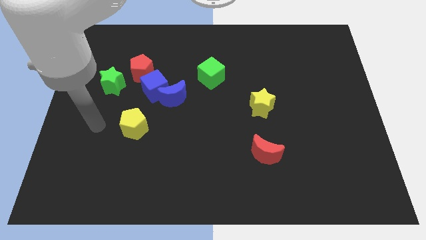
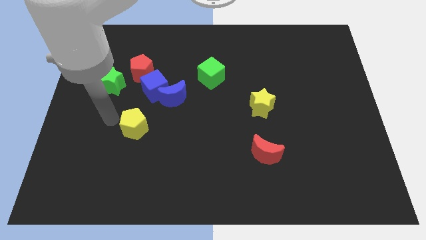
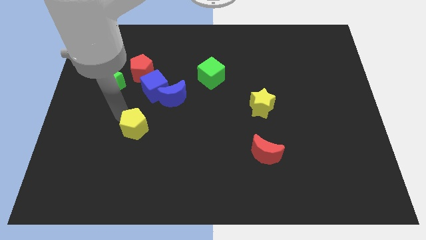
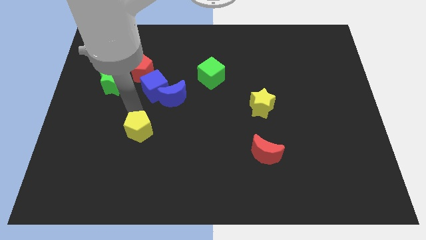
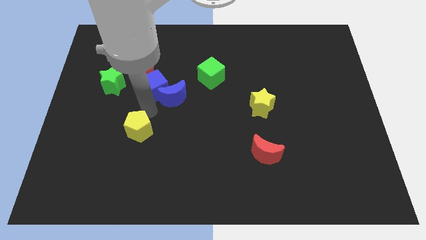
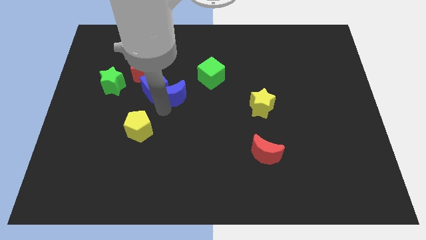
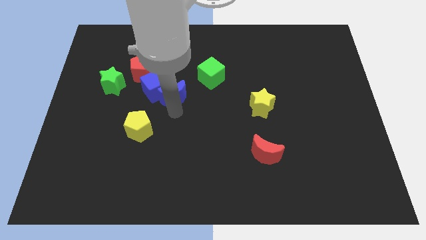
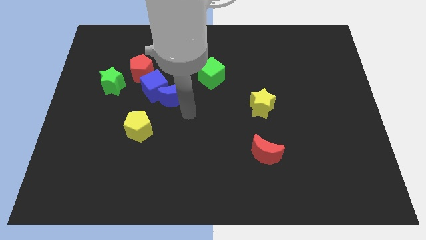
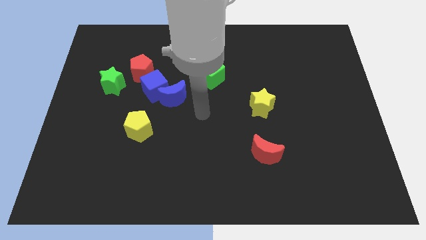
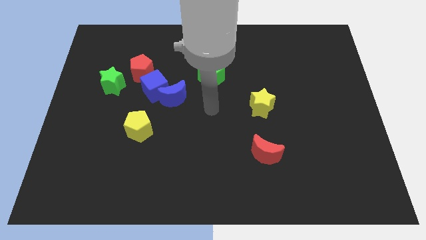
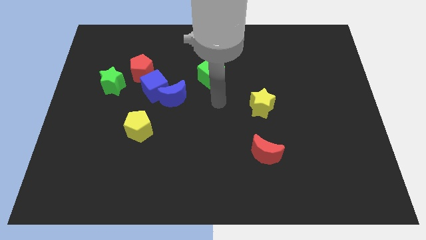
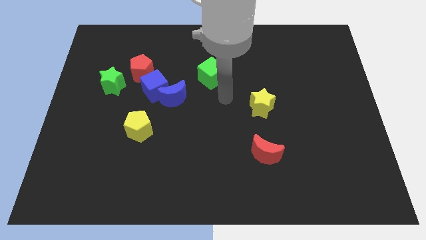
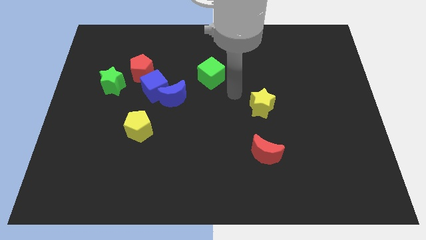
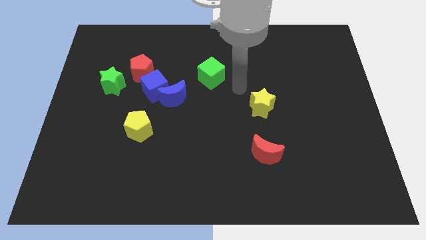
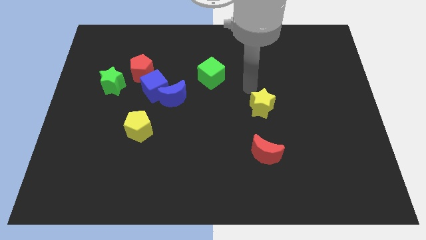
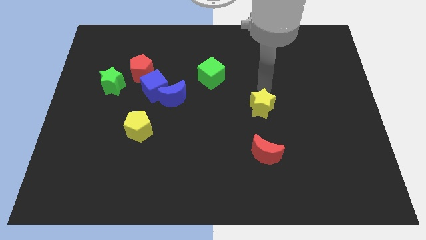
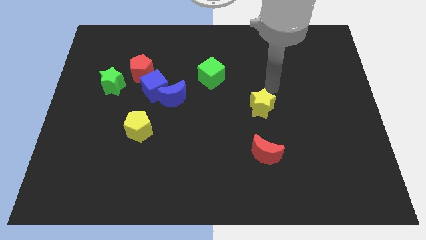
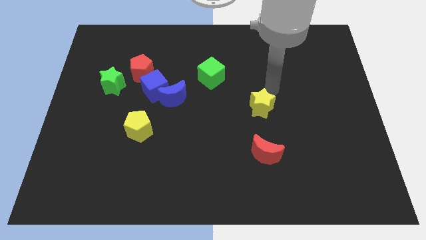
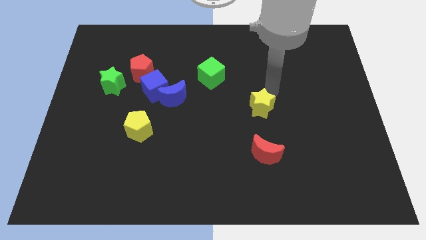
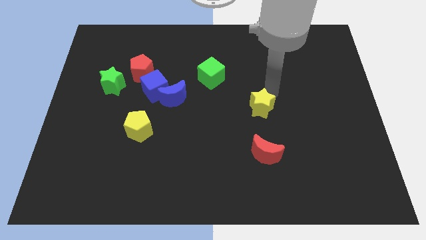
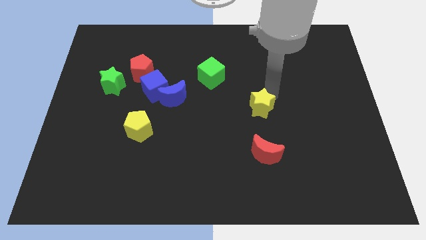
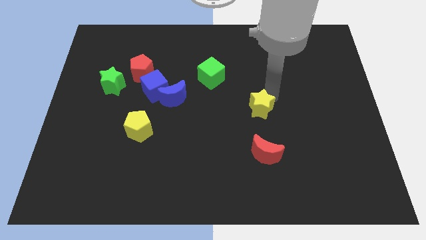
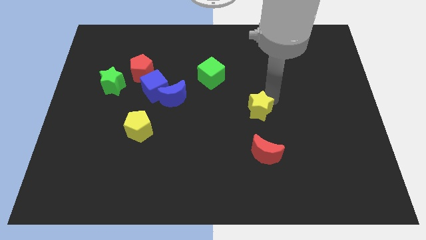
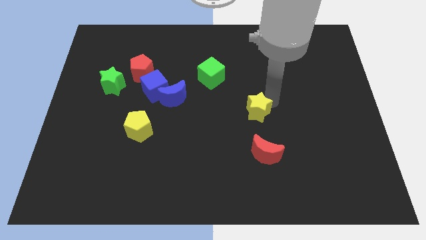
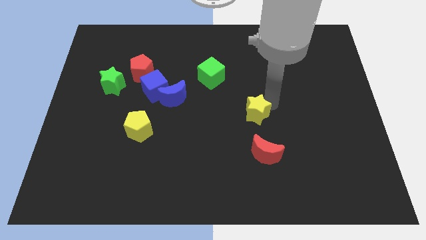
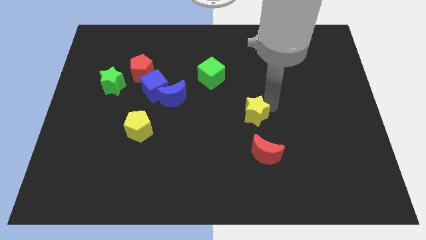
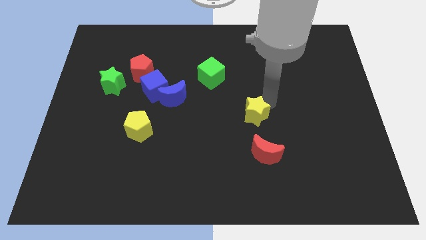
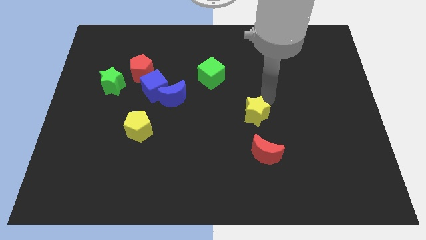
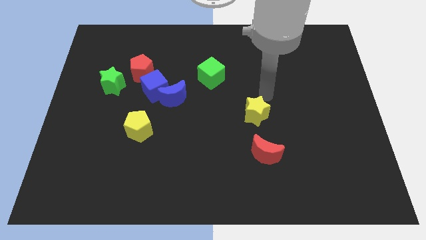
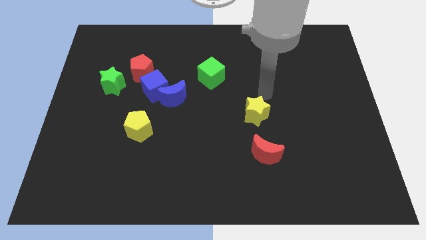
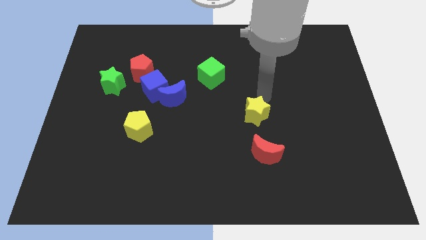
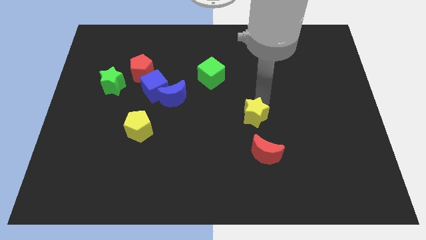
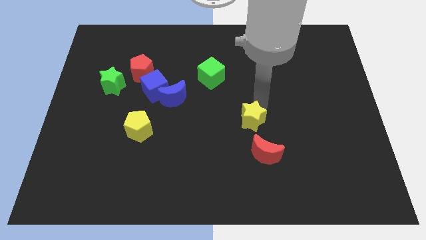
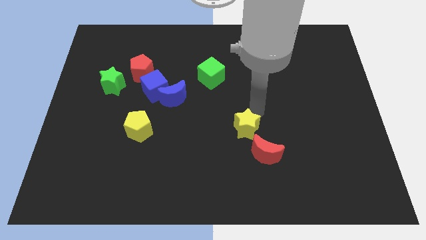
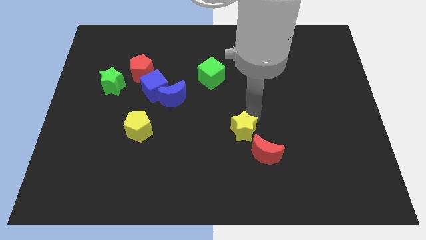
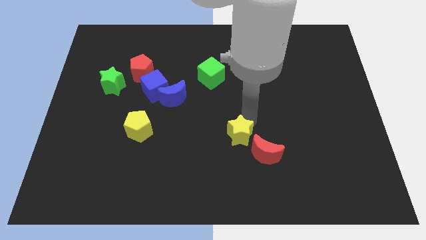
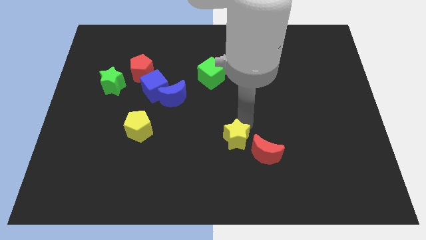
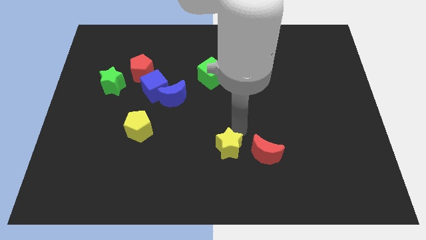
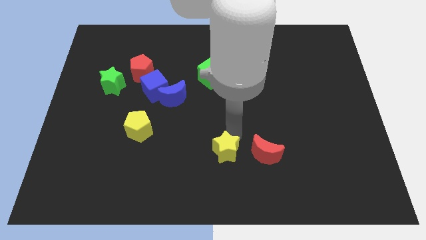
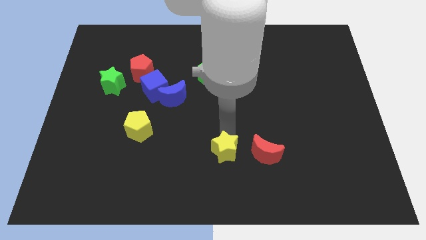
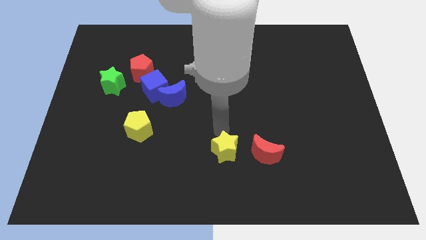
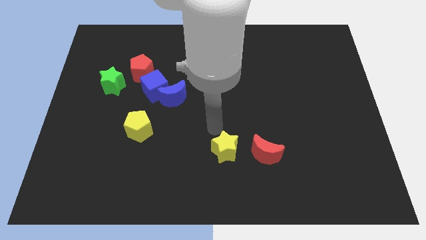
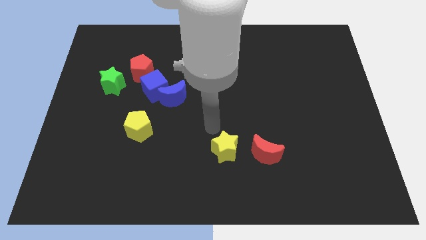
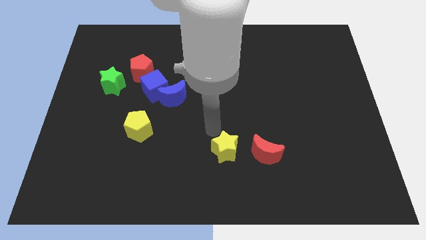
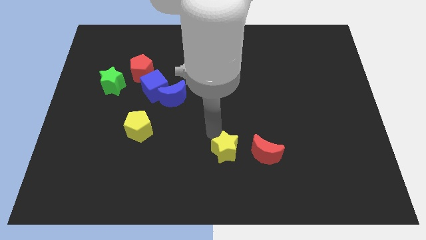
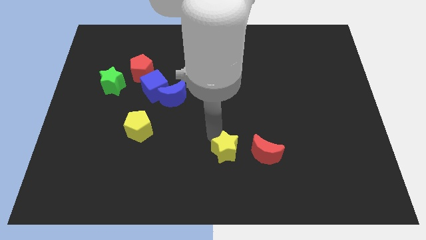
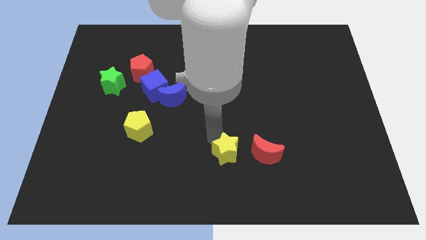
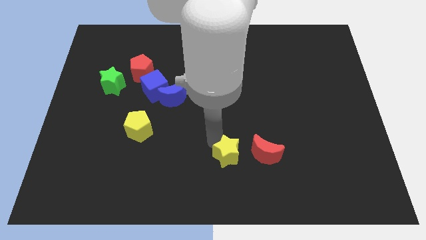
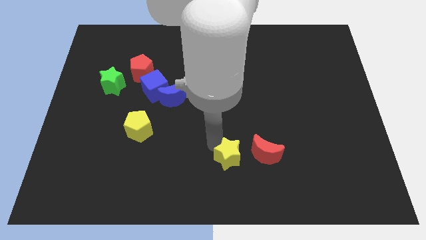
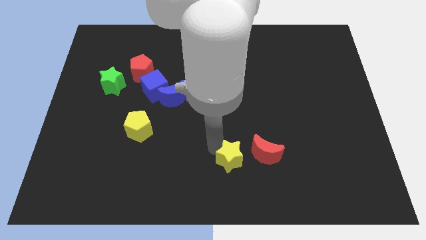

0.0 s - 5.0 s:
slide the yellow star diagonally down and to the left of the red moon

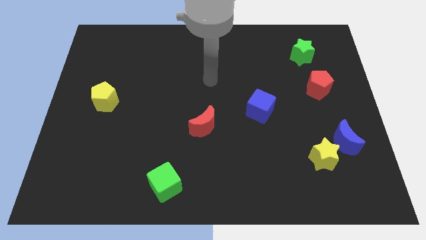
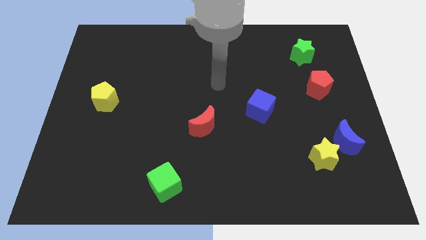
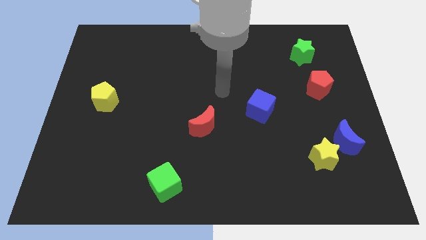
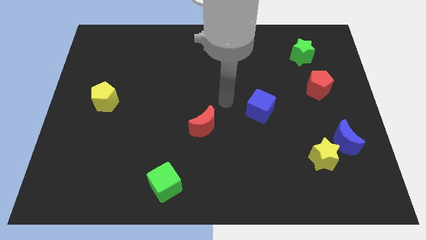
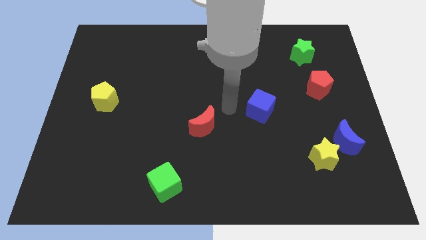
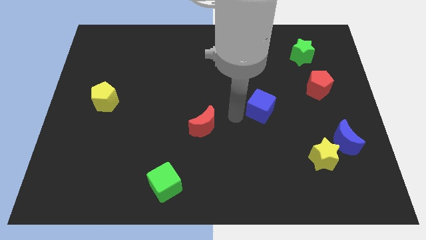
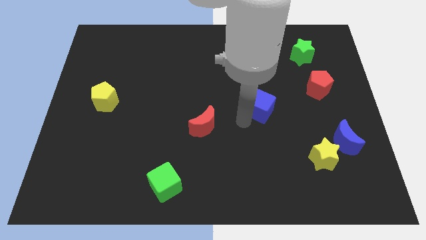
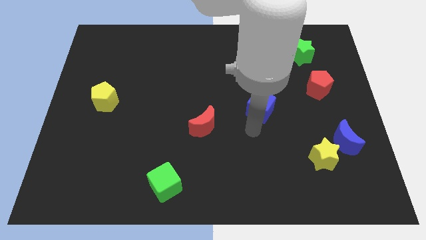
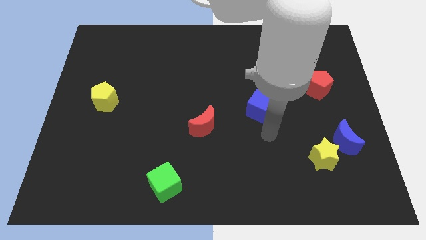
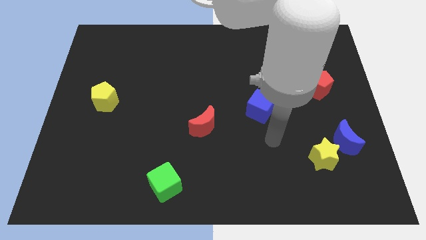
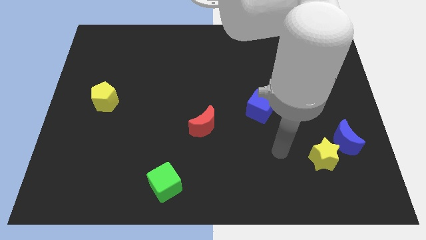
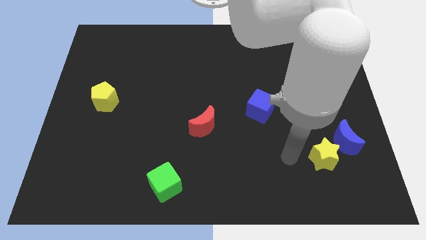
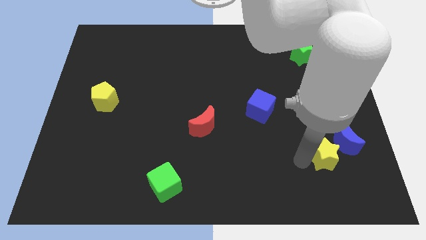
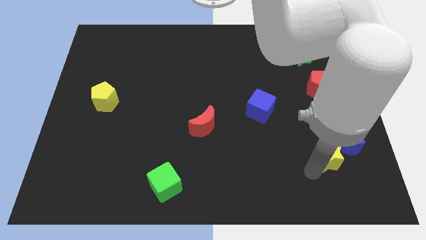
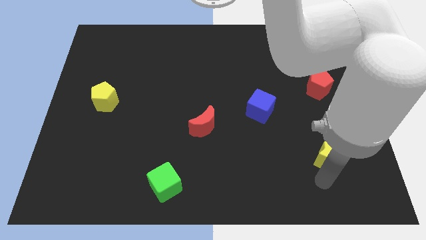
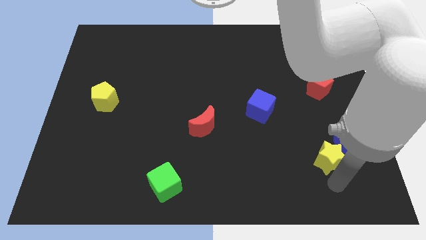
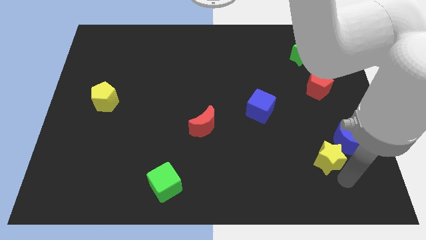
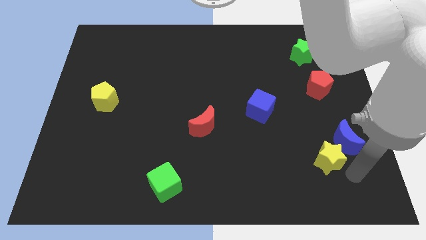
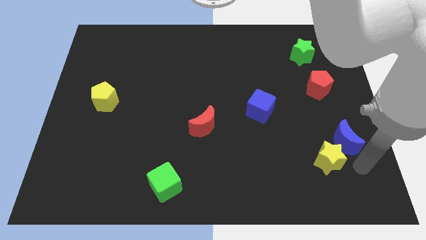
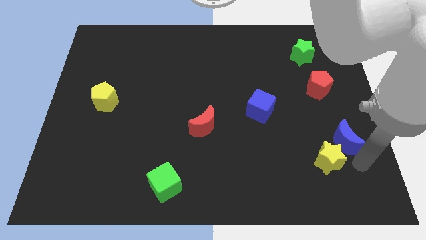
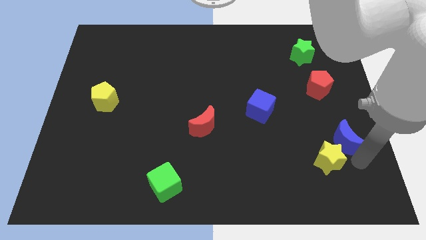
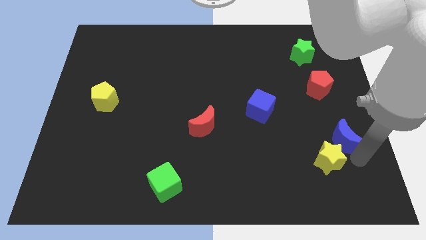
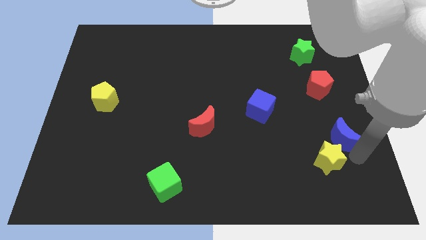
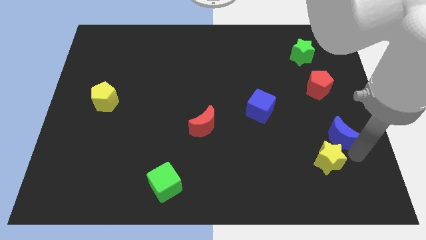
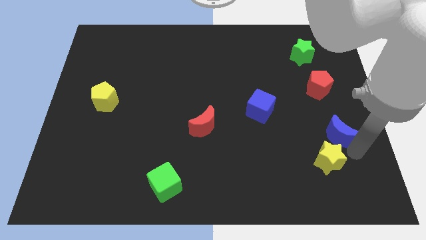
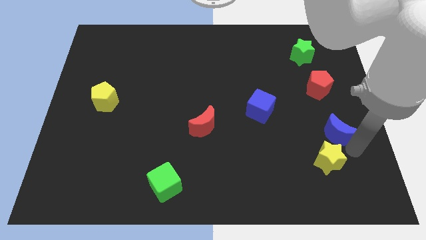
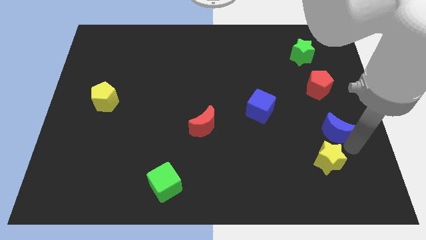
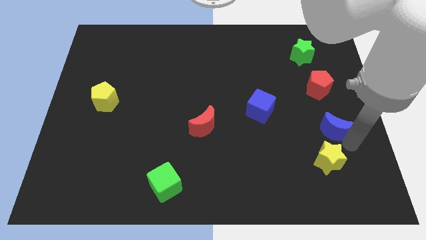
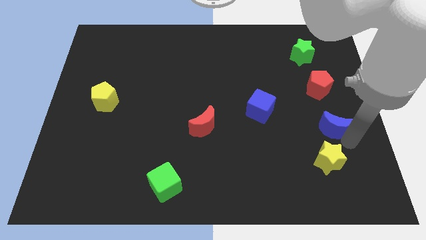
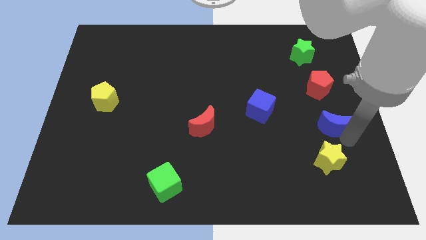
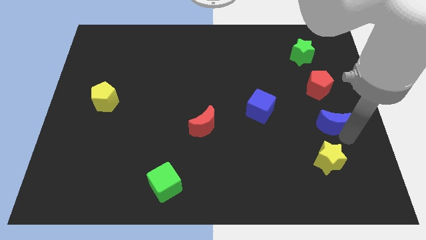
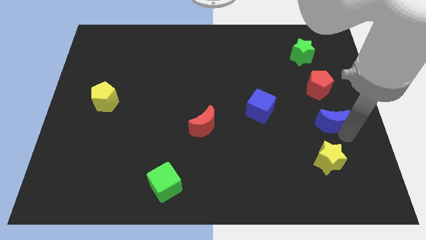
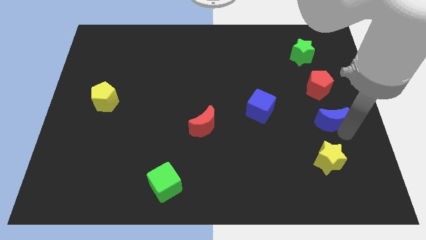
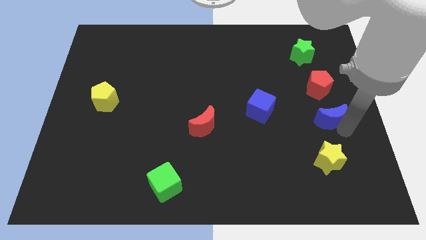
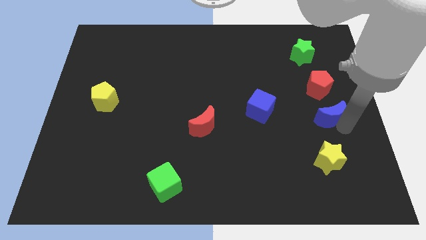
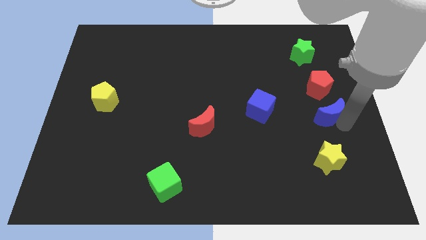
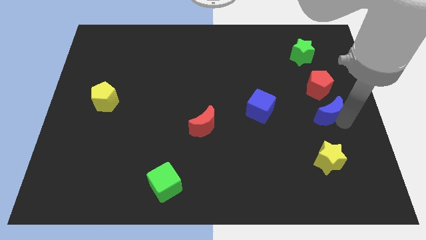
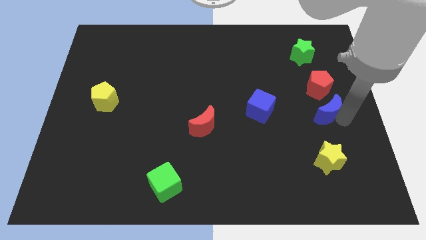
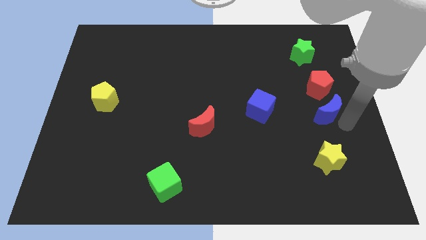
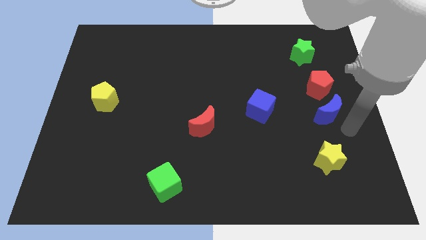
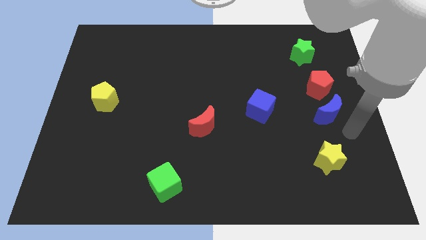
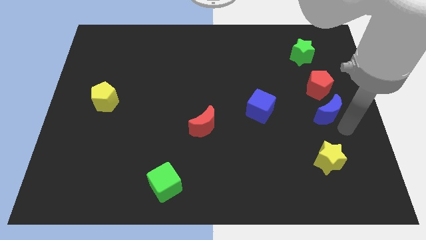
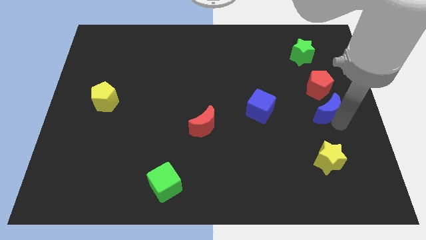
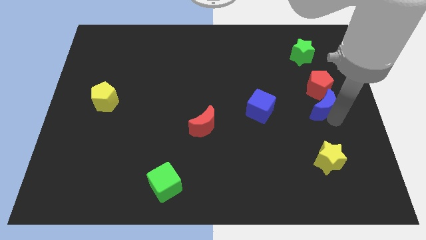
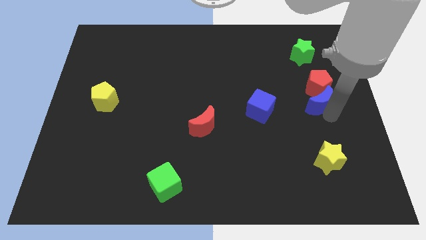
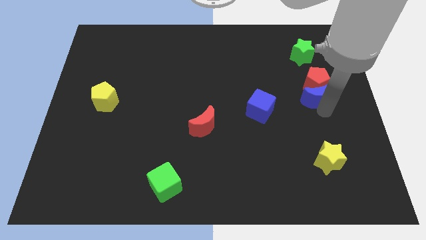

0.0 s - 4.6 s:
slide the blue moon below the green star
